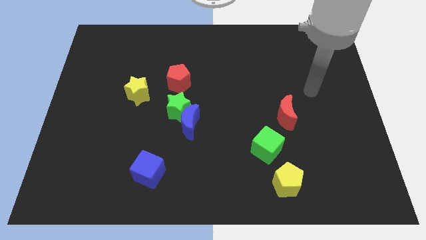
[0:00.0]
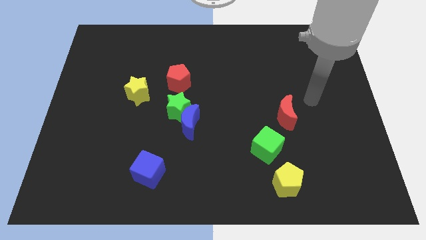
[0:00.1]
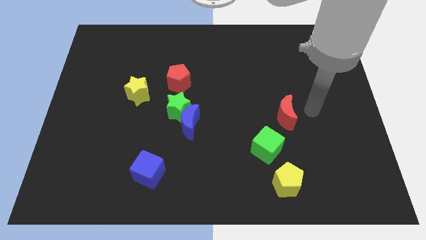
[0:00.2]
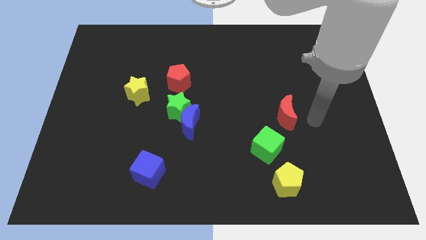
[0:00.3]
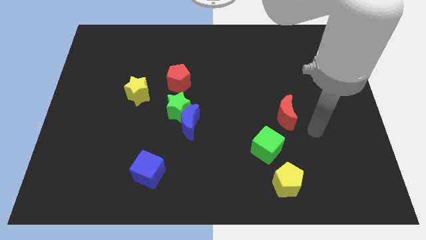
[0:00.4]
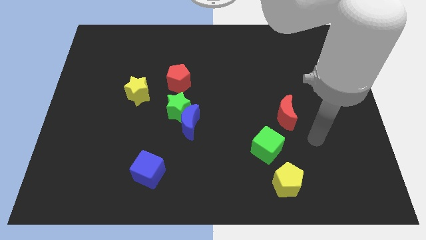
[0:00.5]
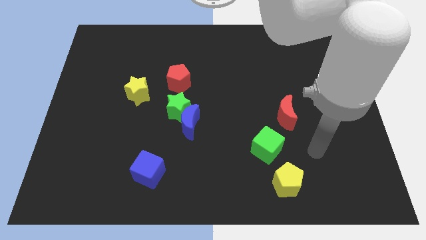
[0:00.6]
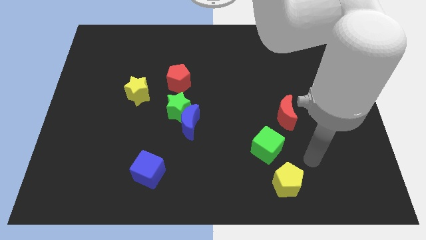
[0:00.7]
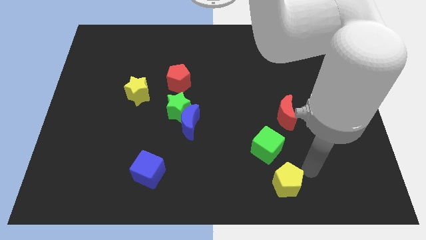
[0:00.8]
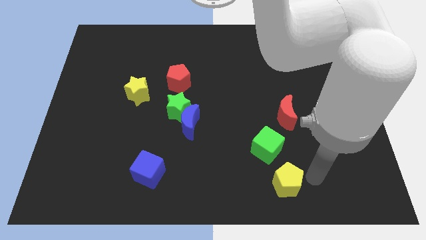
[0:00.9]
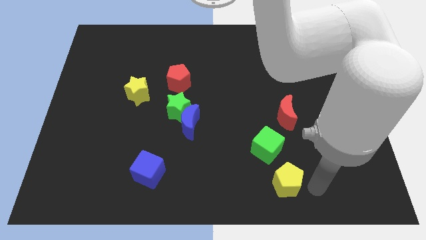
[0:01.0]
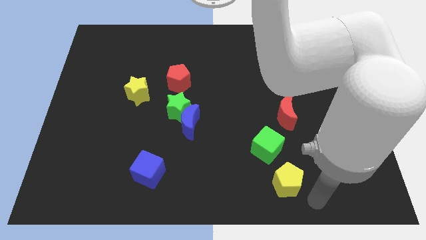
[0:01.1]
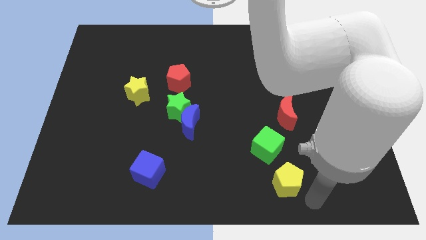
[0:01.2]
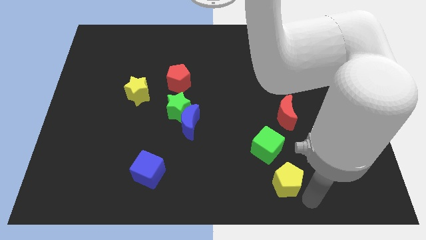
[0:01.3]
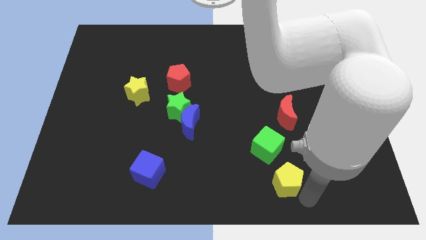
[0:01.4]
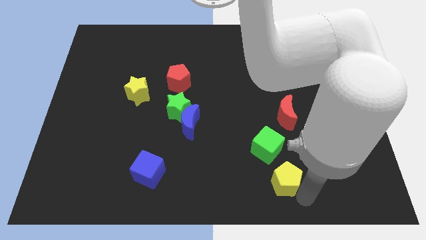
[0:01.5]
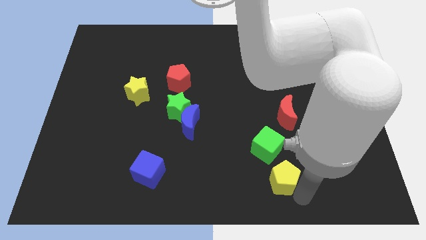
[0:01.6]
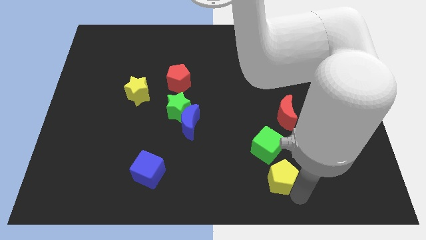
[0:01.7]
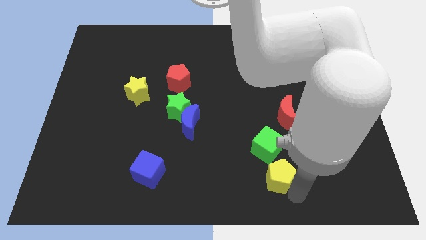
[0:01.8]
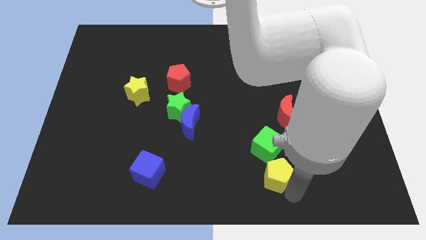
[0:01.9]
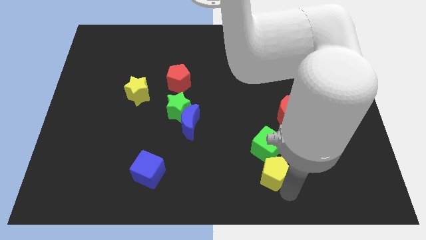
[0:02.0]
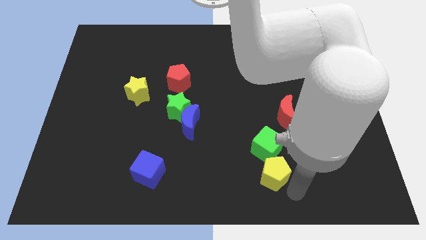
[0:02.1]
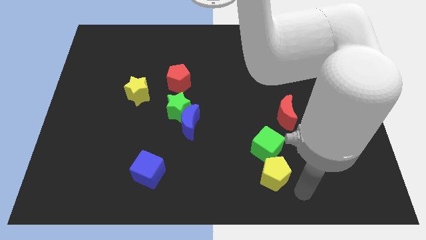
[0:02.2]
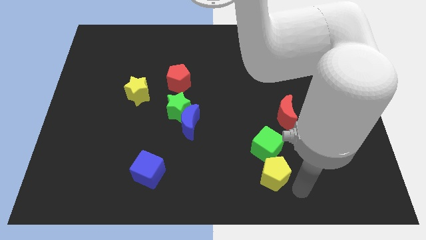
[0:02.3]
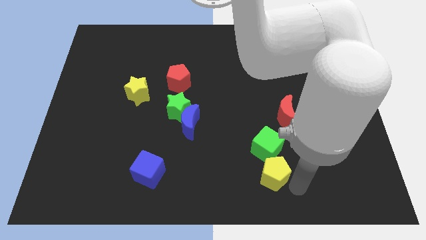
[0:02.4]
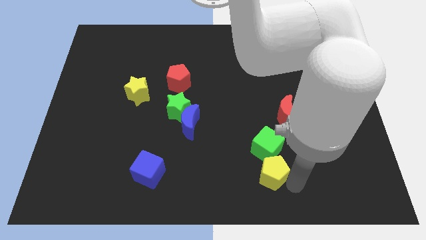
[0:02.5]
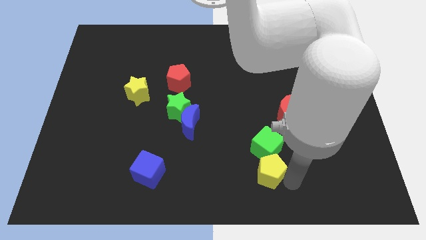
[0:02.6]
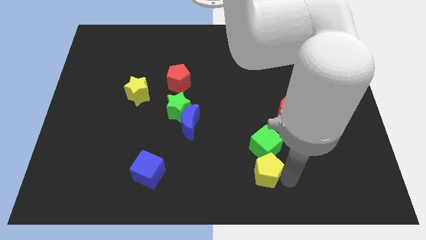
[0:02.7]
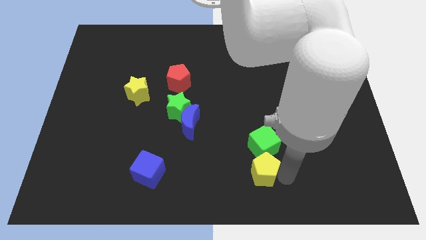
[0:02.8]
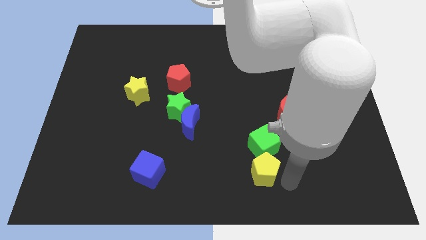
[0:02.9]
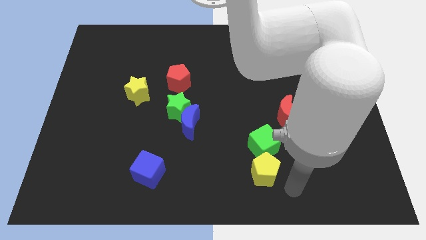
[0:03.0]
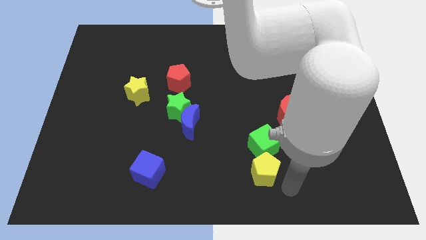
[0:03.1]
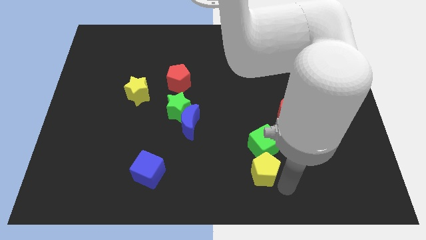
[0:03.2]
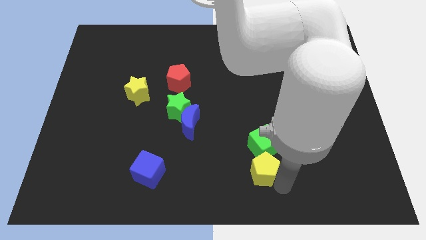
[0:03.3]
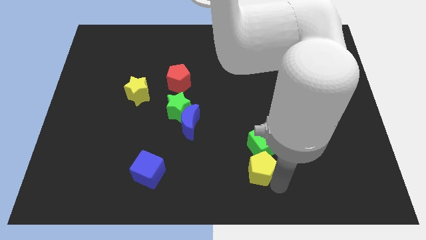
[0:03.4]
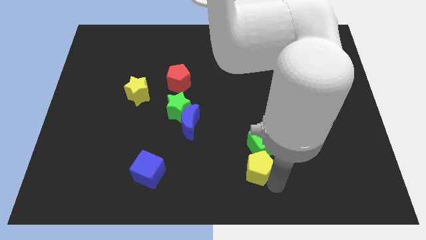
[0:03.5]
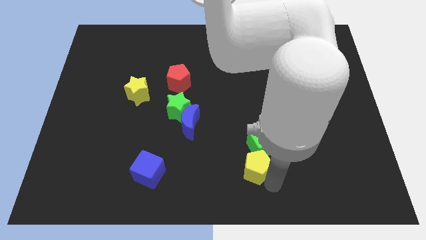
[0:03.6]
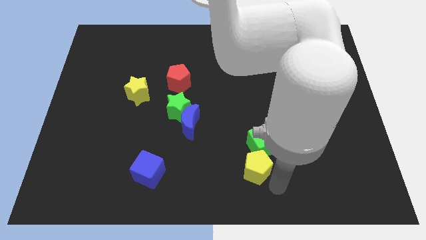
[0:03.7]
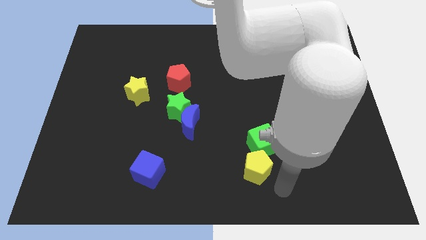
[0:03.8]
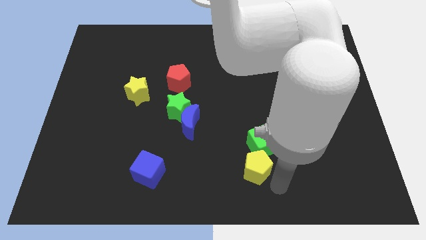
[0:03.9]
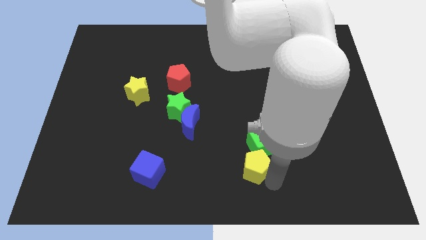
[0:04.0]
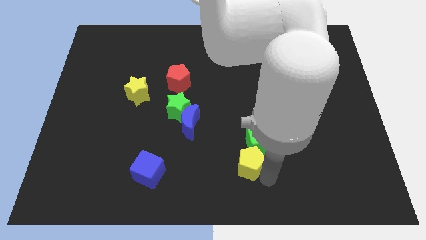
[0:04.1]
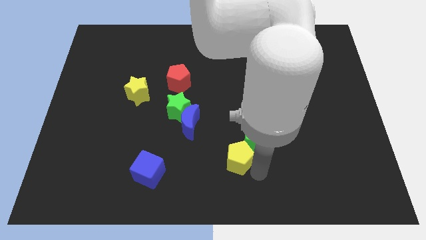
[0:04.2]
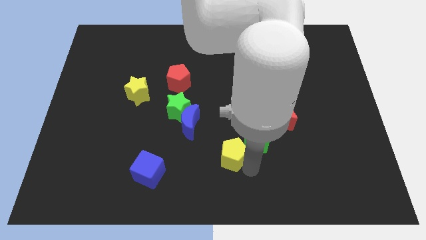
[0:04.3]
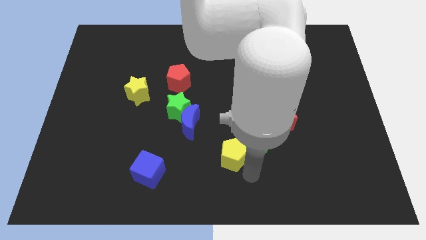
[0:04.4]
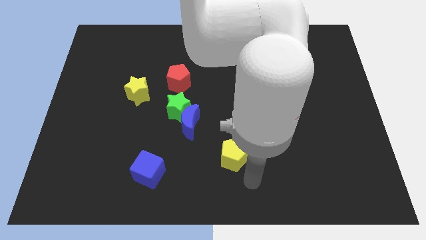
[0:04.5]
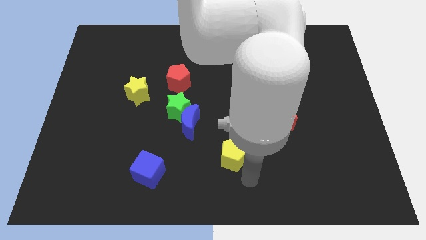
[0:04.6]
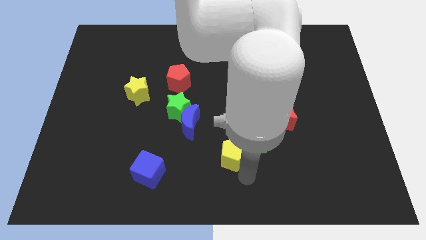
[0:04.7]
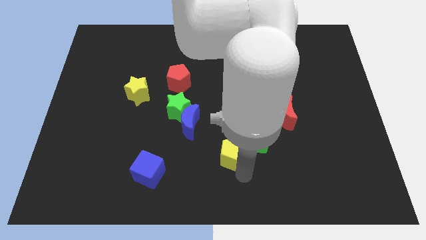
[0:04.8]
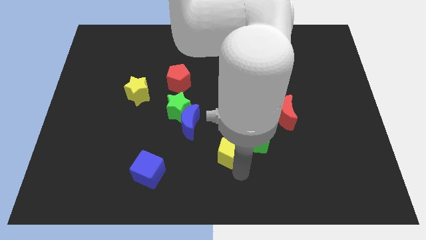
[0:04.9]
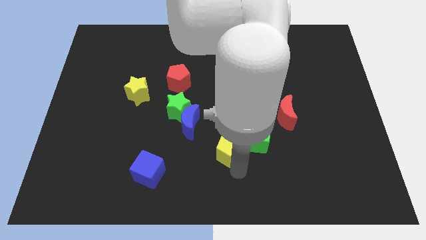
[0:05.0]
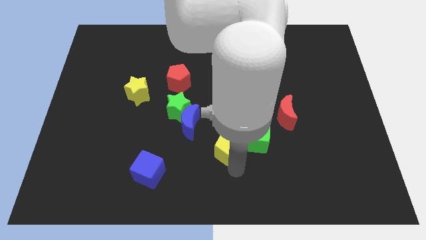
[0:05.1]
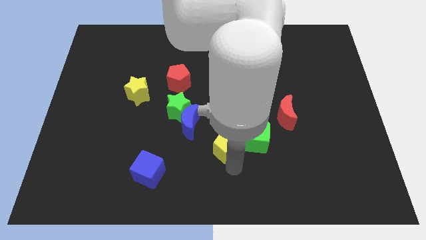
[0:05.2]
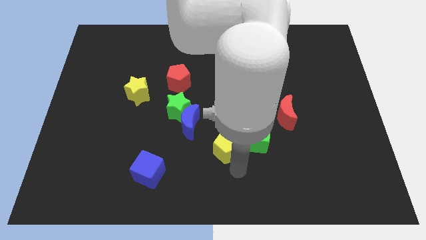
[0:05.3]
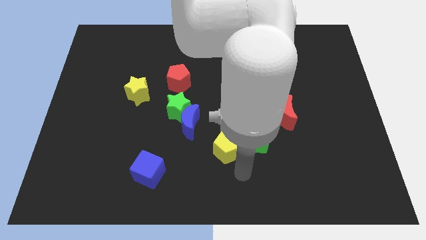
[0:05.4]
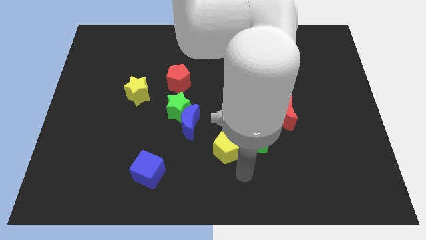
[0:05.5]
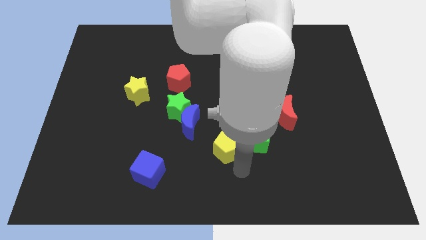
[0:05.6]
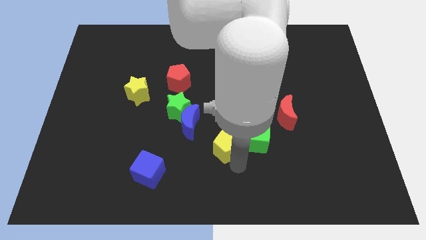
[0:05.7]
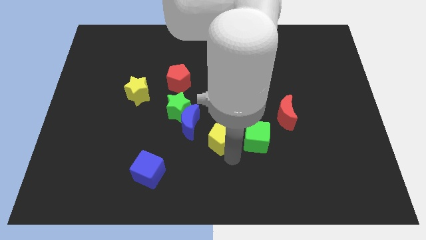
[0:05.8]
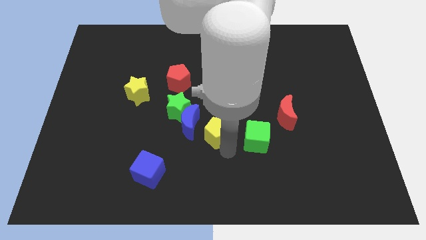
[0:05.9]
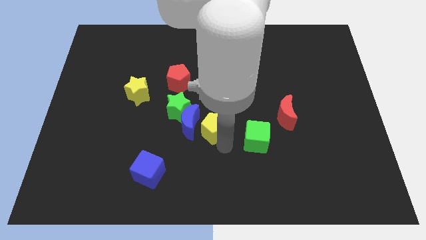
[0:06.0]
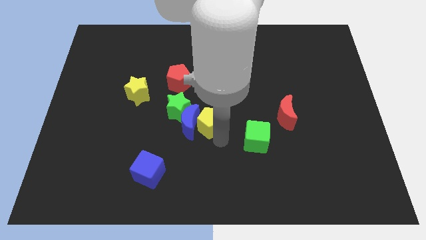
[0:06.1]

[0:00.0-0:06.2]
move the yellow pentagon up and then to the left

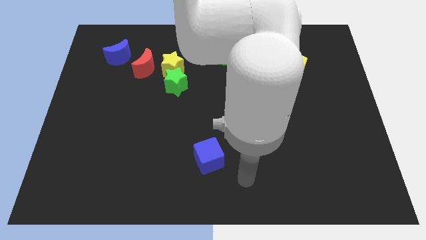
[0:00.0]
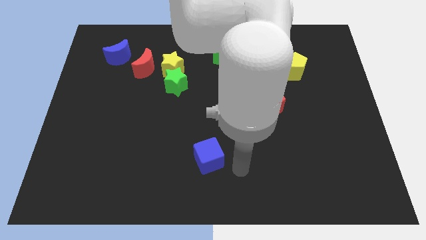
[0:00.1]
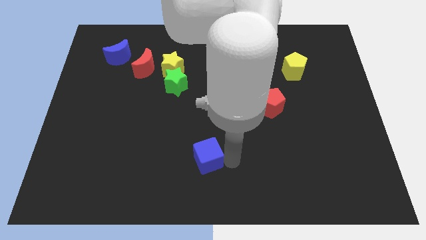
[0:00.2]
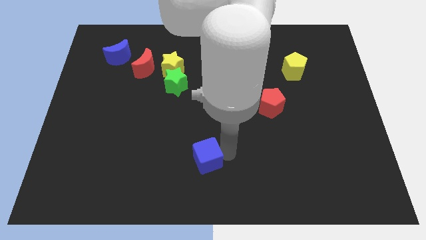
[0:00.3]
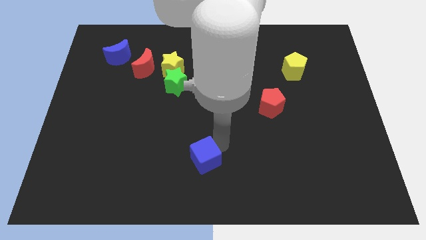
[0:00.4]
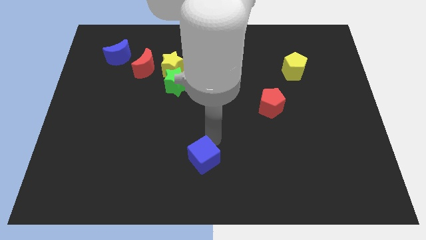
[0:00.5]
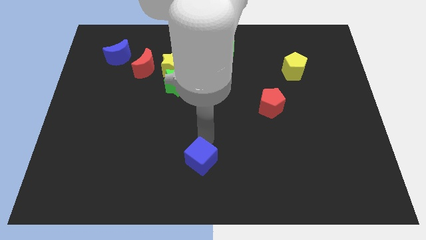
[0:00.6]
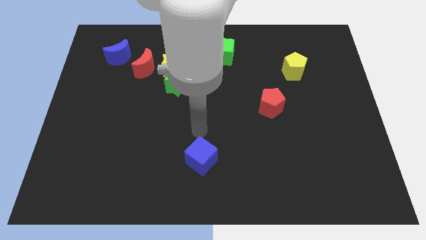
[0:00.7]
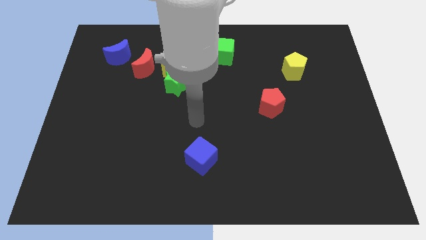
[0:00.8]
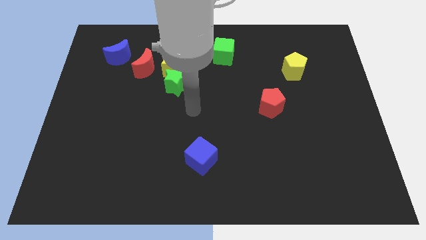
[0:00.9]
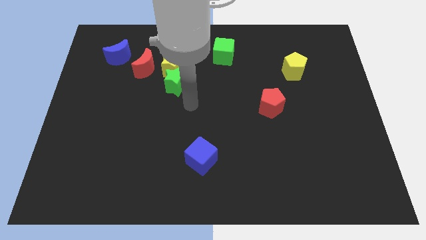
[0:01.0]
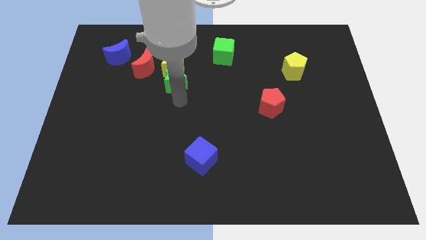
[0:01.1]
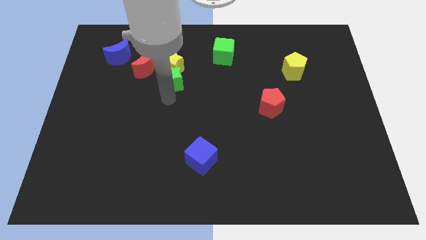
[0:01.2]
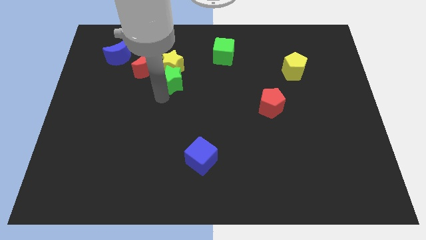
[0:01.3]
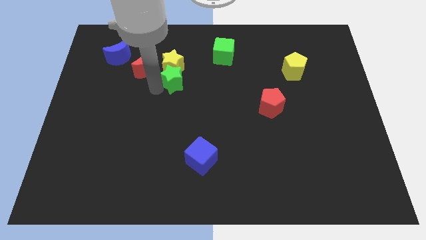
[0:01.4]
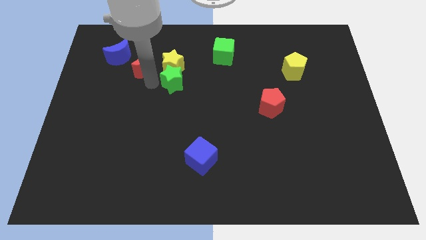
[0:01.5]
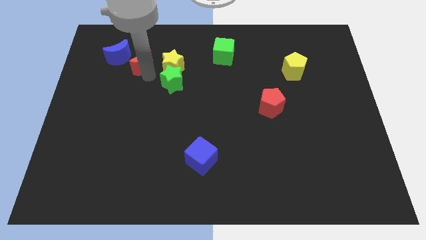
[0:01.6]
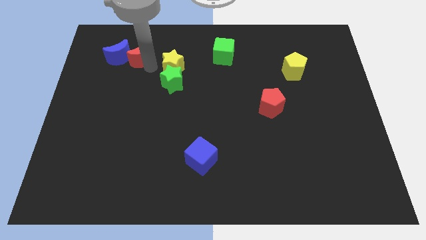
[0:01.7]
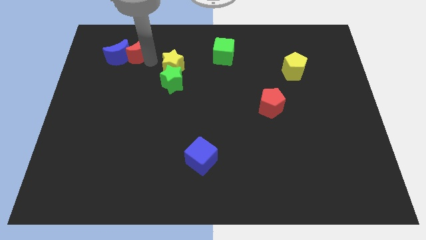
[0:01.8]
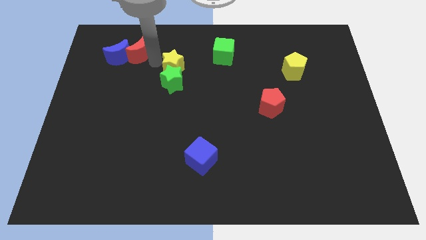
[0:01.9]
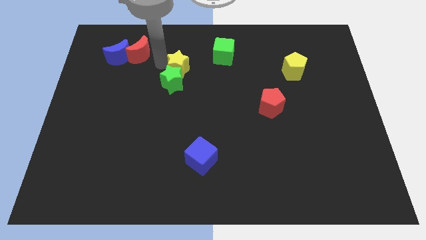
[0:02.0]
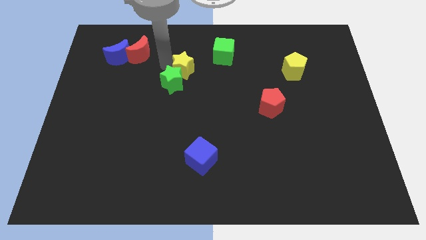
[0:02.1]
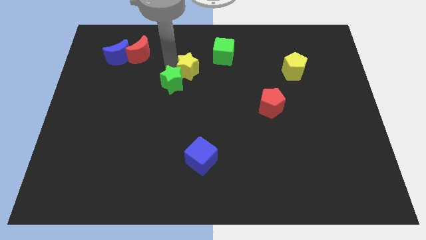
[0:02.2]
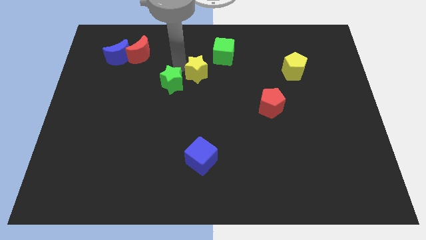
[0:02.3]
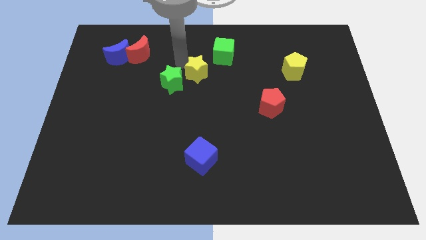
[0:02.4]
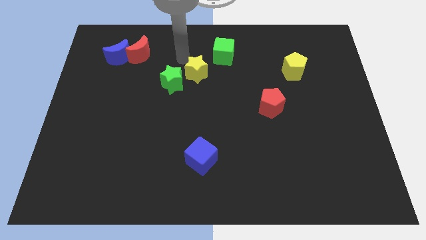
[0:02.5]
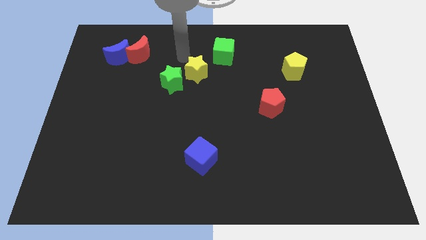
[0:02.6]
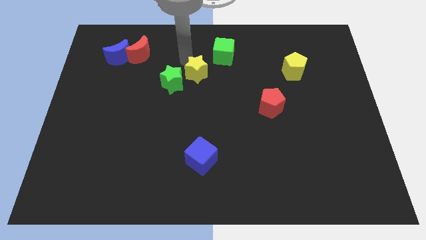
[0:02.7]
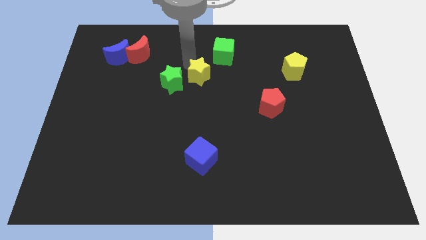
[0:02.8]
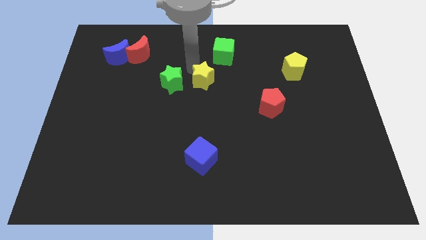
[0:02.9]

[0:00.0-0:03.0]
push the yellow star a little downwards and to the right
